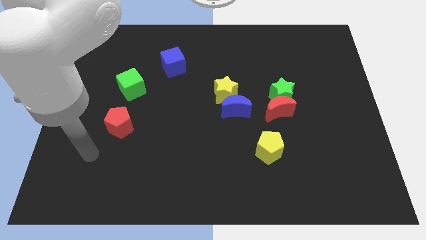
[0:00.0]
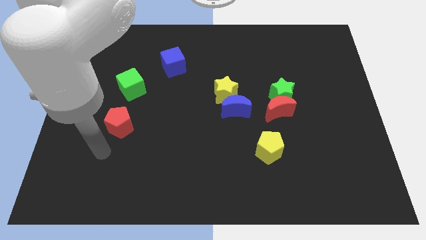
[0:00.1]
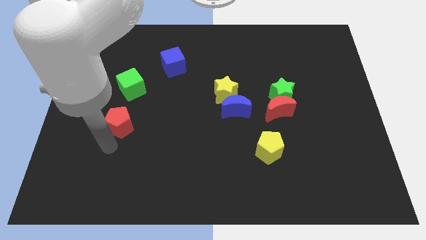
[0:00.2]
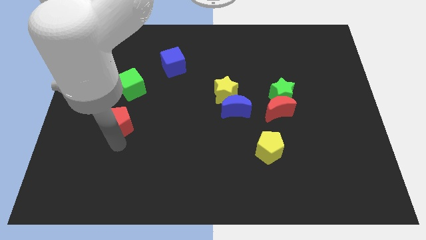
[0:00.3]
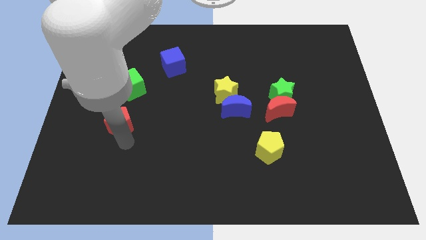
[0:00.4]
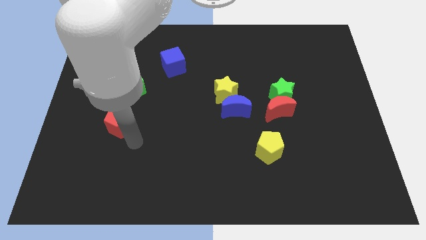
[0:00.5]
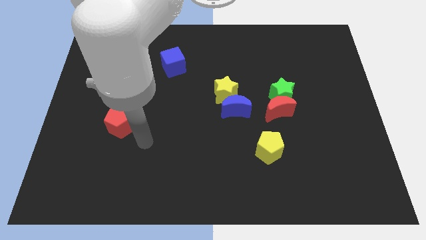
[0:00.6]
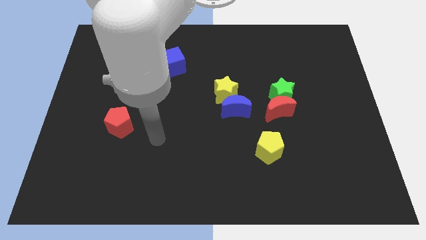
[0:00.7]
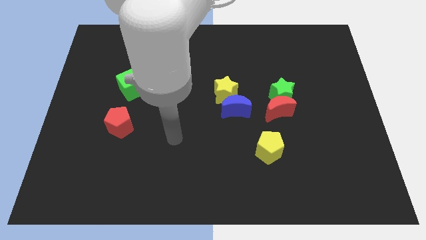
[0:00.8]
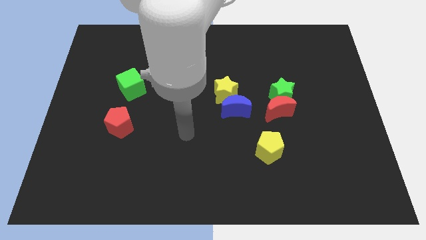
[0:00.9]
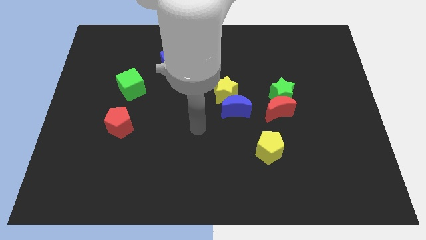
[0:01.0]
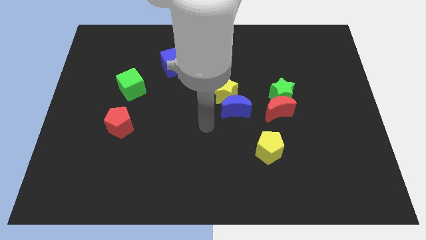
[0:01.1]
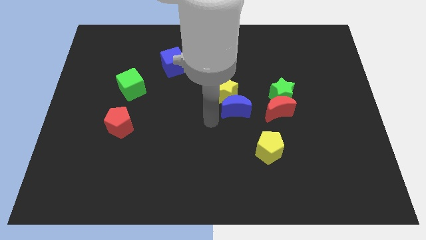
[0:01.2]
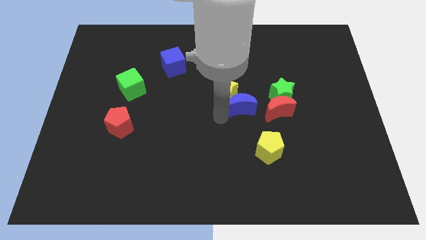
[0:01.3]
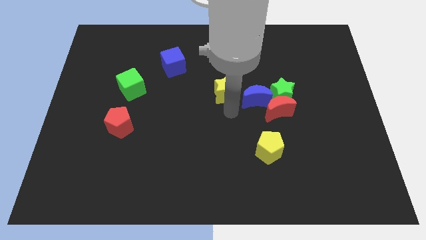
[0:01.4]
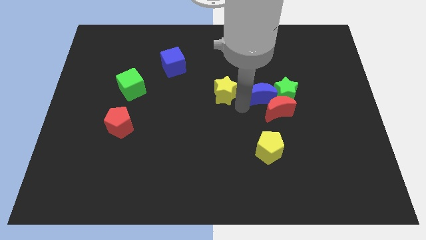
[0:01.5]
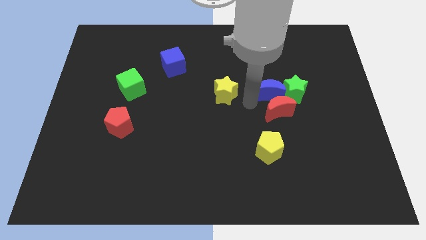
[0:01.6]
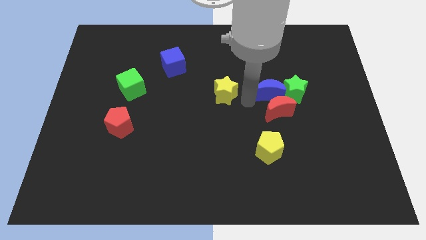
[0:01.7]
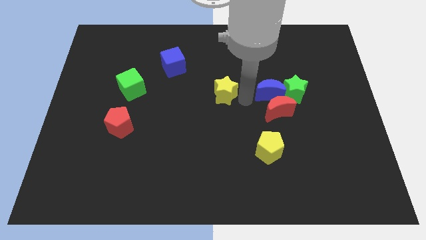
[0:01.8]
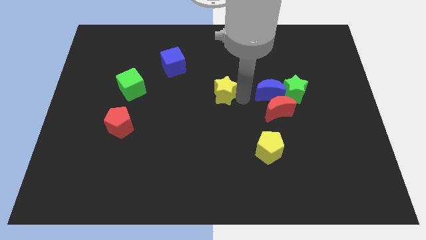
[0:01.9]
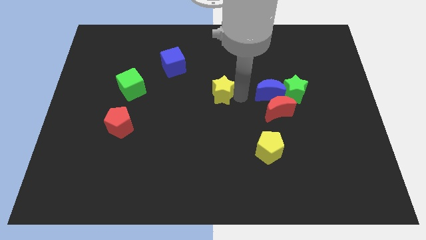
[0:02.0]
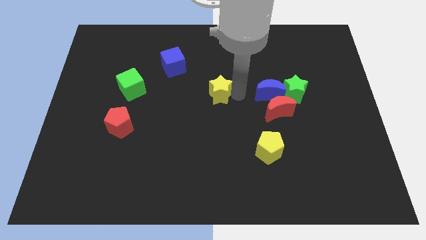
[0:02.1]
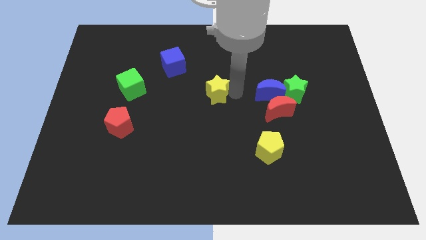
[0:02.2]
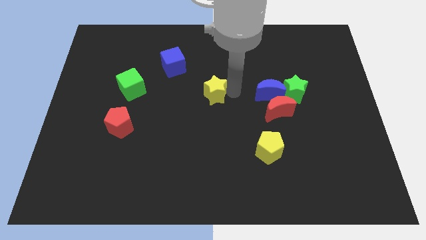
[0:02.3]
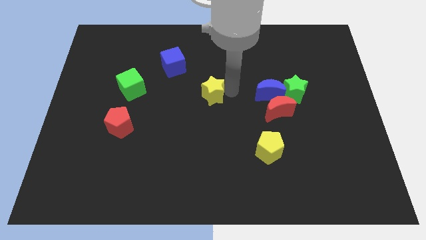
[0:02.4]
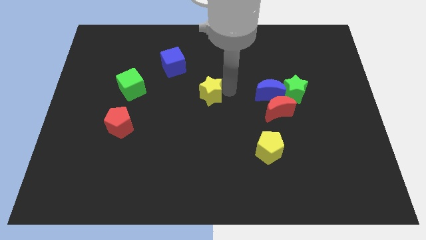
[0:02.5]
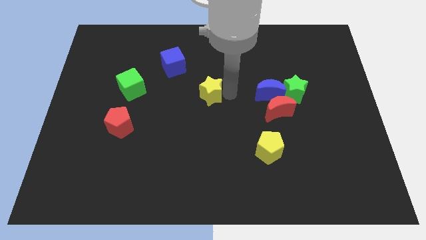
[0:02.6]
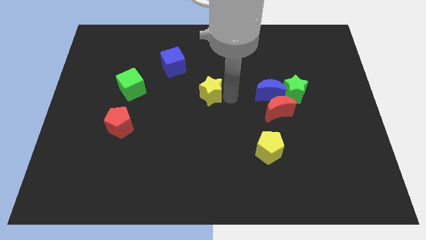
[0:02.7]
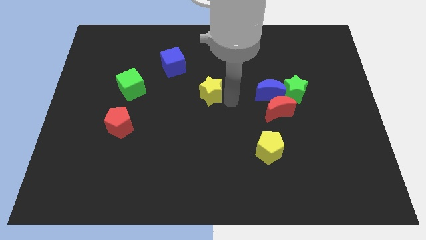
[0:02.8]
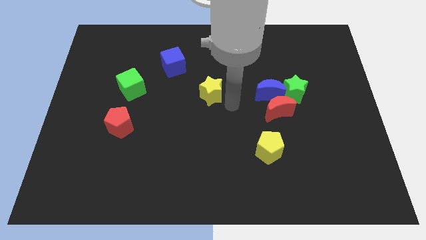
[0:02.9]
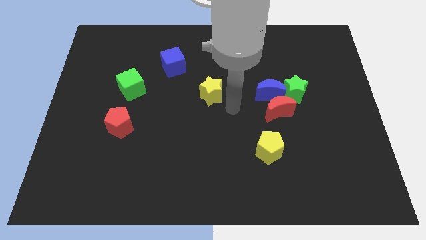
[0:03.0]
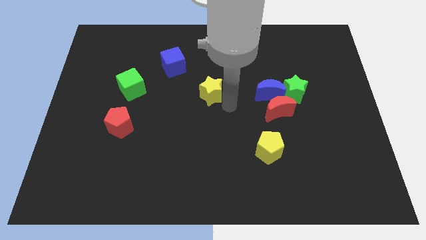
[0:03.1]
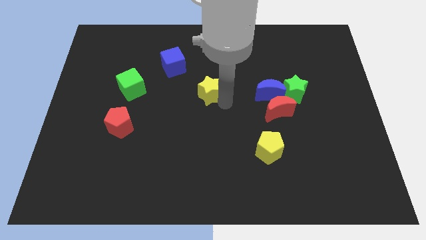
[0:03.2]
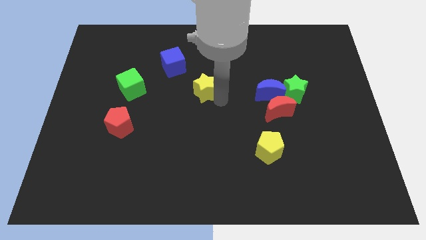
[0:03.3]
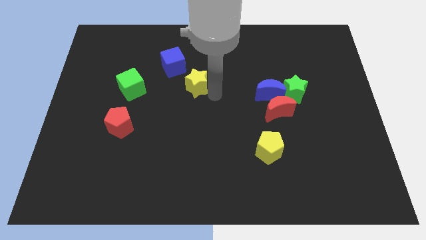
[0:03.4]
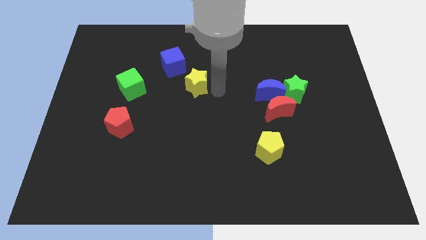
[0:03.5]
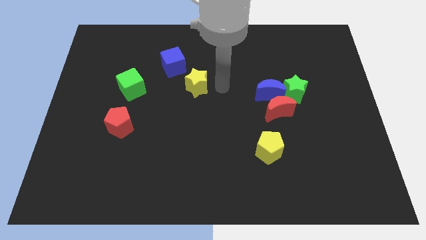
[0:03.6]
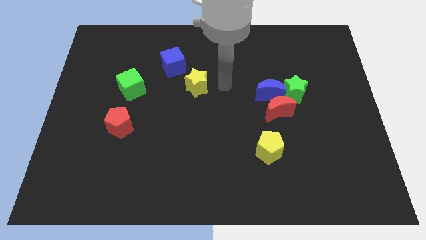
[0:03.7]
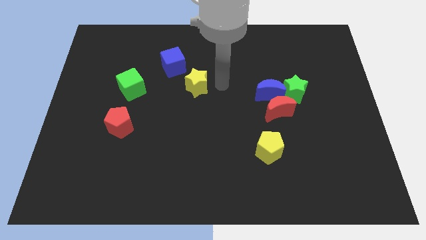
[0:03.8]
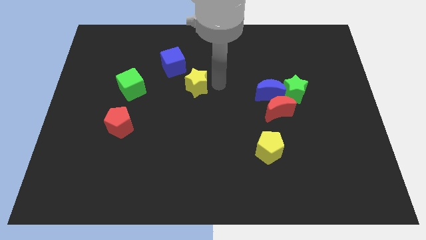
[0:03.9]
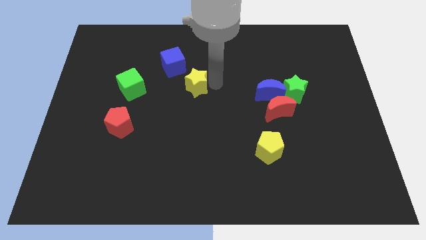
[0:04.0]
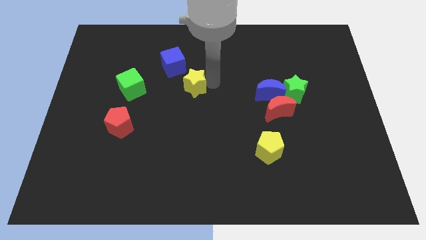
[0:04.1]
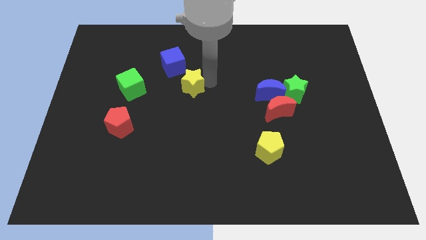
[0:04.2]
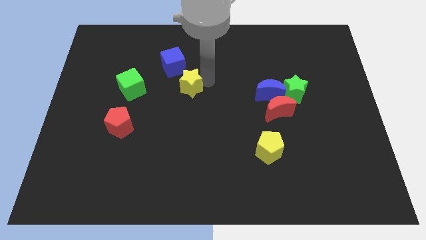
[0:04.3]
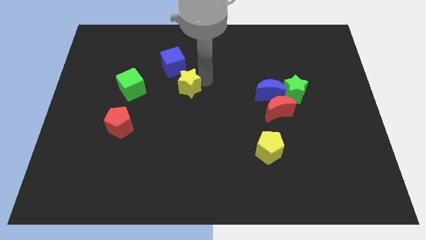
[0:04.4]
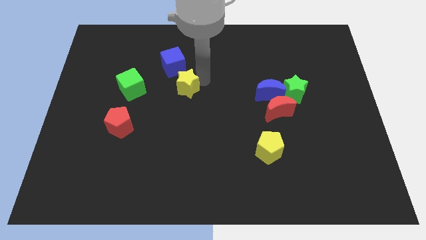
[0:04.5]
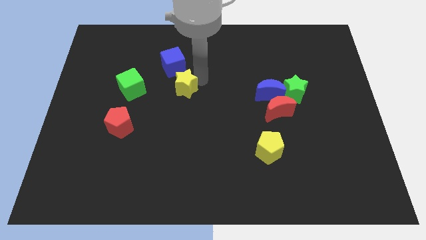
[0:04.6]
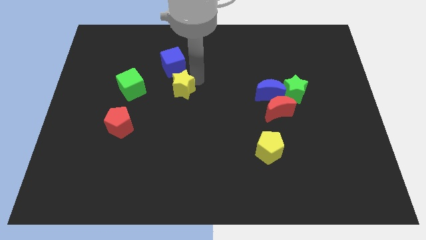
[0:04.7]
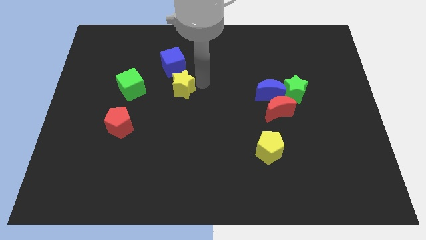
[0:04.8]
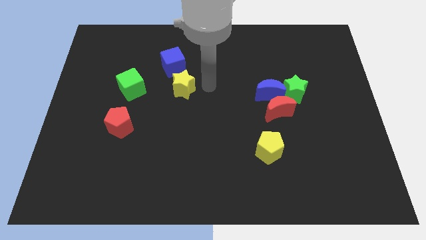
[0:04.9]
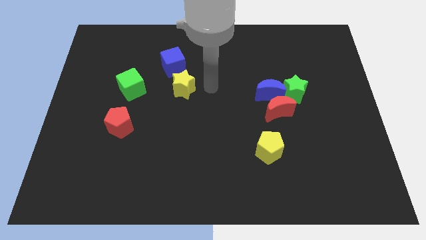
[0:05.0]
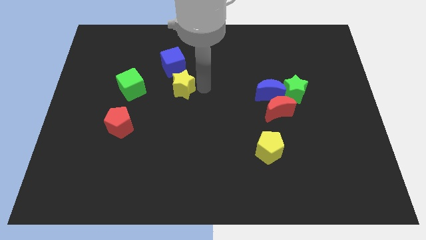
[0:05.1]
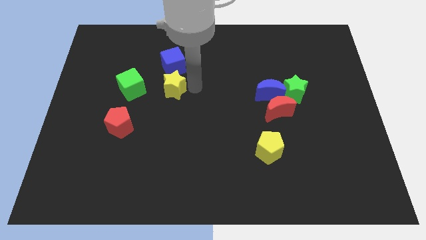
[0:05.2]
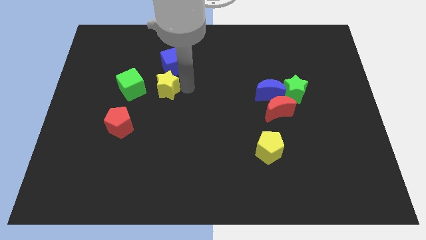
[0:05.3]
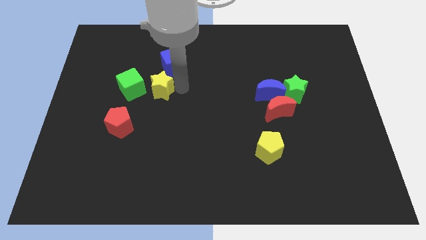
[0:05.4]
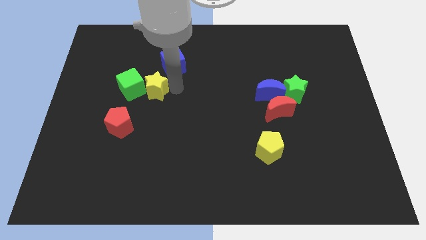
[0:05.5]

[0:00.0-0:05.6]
push the yellow star close to the green cube

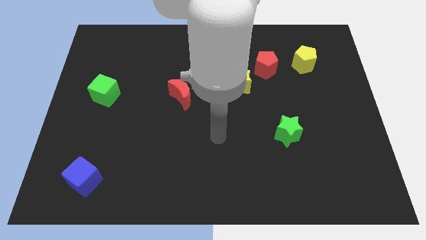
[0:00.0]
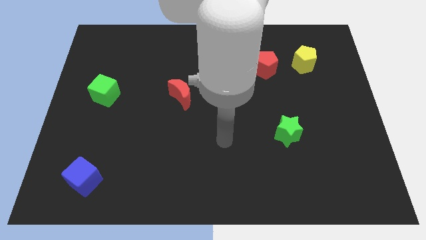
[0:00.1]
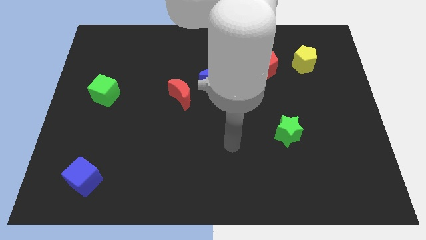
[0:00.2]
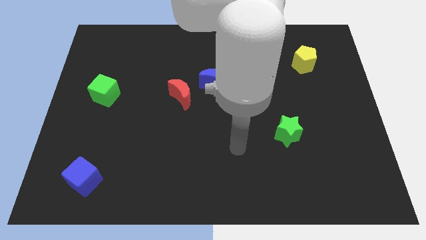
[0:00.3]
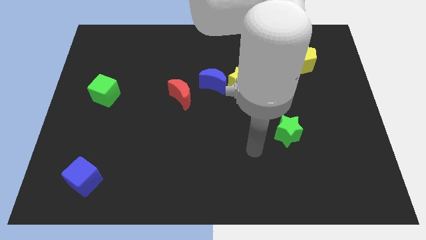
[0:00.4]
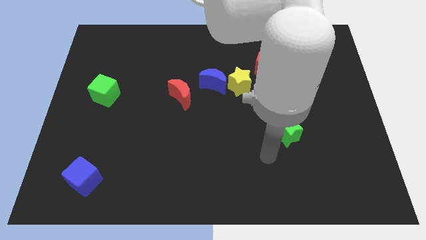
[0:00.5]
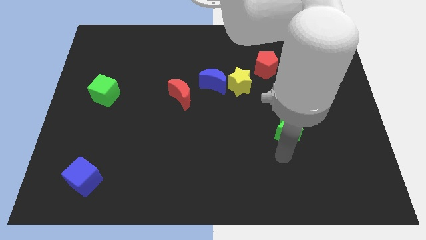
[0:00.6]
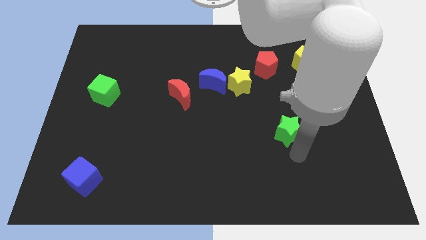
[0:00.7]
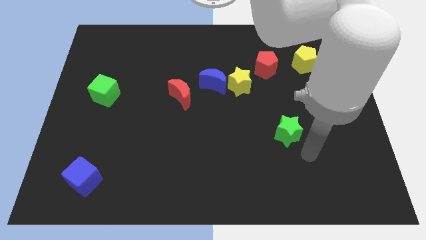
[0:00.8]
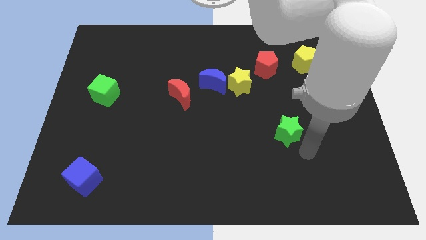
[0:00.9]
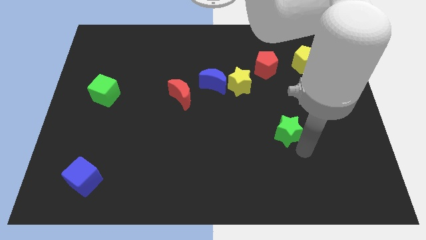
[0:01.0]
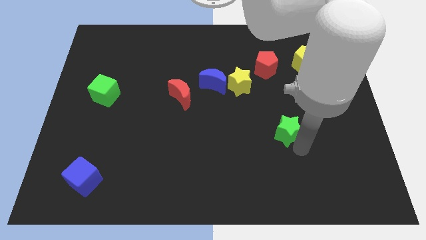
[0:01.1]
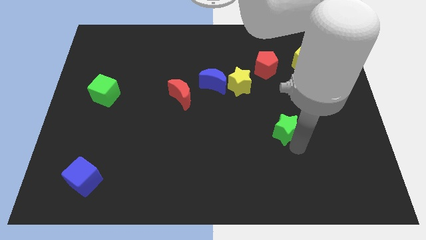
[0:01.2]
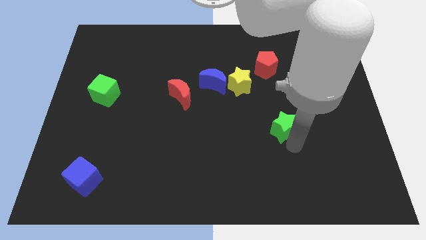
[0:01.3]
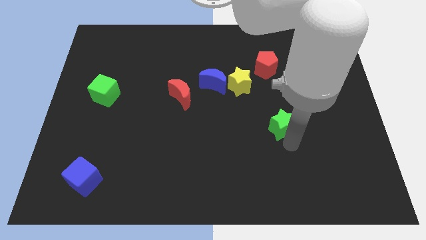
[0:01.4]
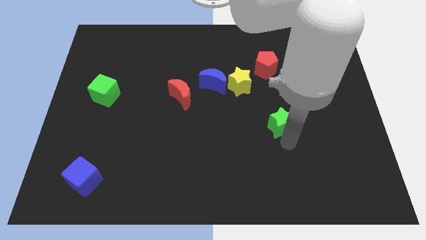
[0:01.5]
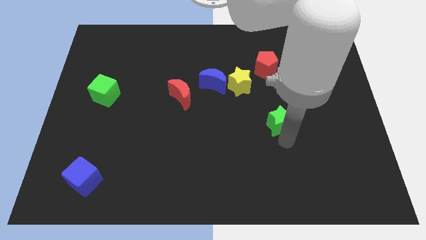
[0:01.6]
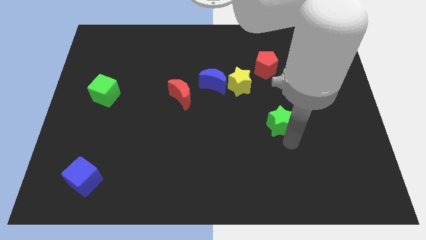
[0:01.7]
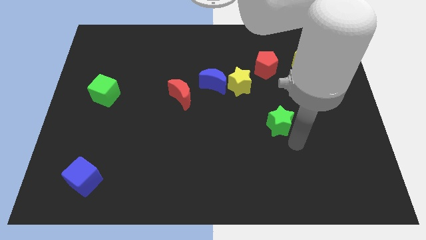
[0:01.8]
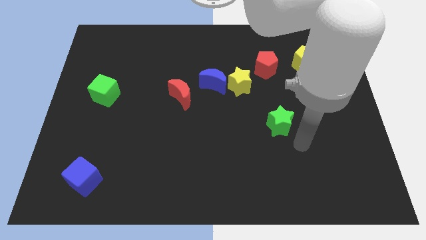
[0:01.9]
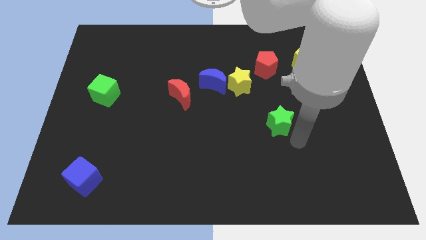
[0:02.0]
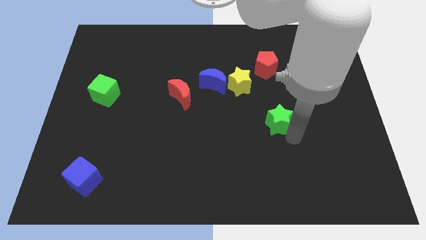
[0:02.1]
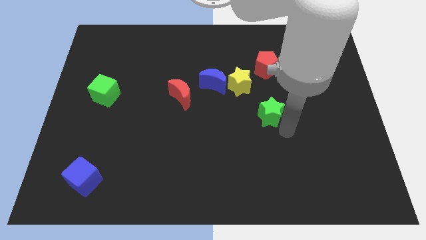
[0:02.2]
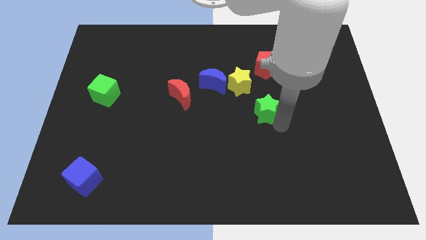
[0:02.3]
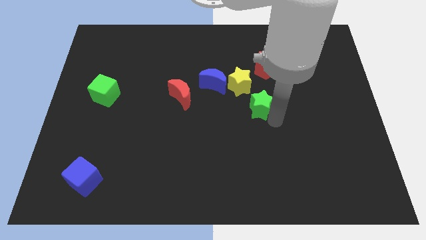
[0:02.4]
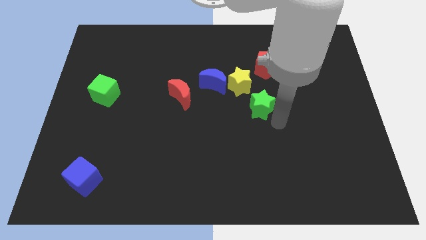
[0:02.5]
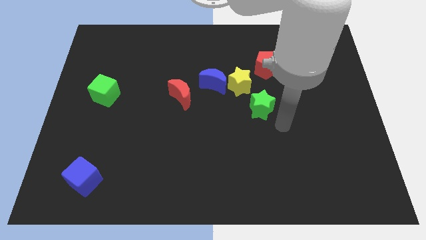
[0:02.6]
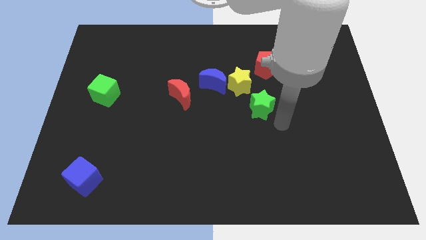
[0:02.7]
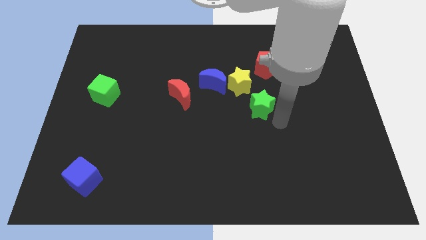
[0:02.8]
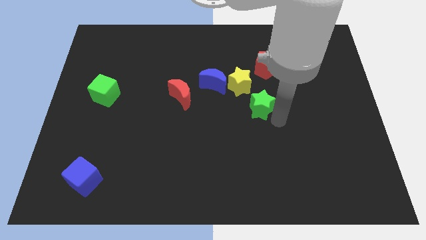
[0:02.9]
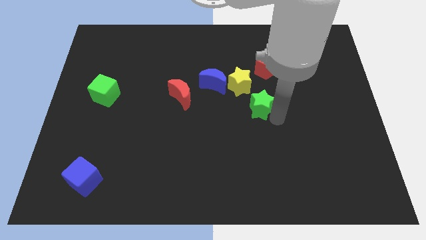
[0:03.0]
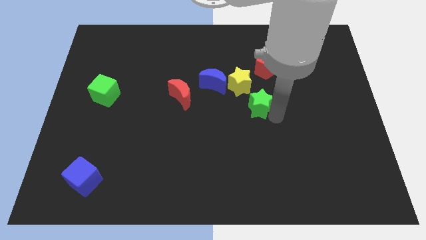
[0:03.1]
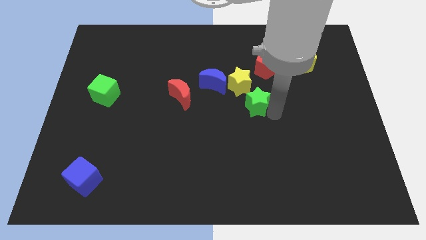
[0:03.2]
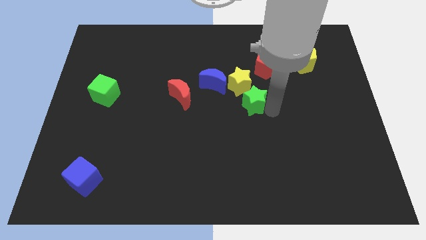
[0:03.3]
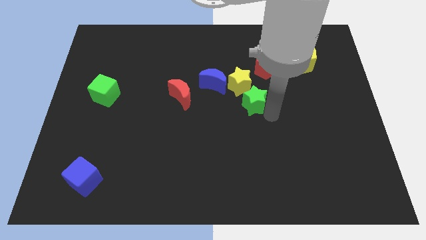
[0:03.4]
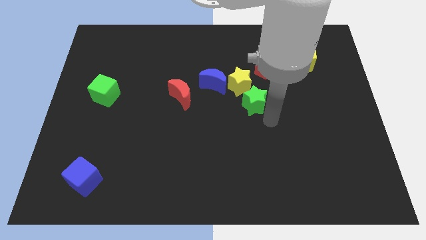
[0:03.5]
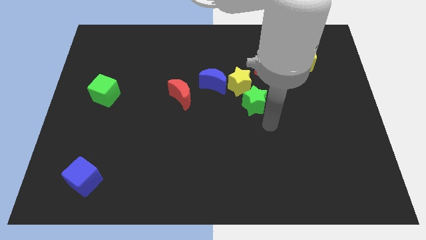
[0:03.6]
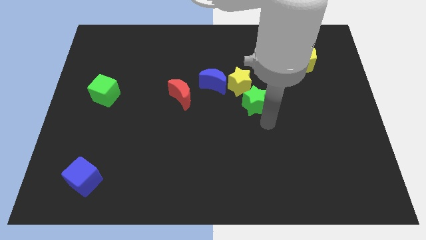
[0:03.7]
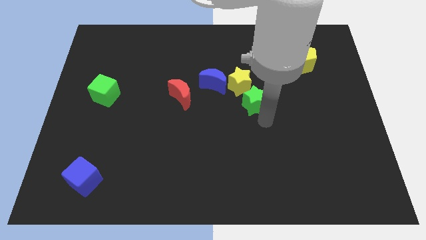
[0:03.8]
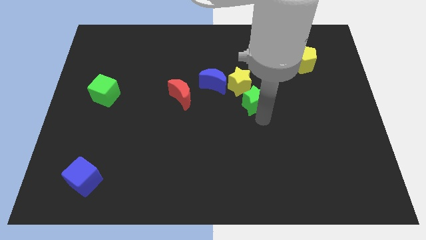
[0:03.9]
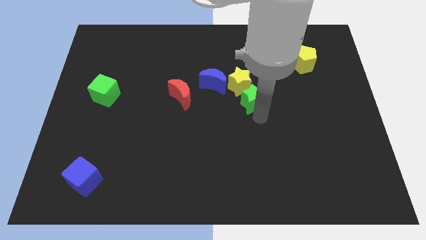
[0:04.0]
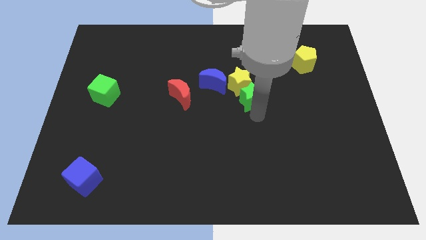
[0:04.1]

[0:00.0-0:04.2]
push the green star towards the yellow star
